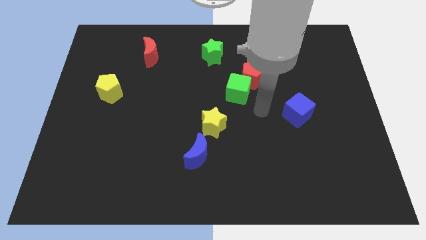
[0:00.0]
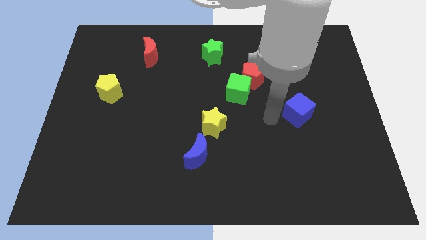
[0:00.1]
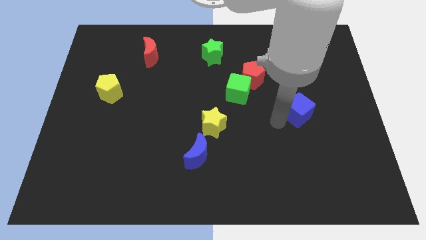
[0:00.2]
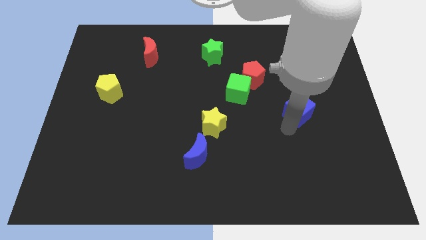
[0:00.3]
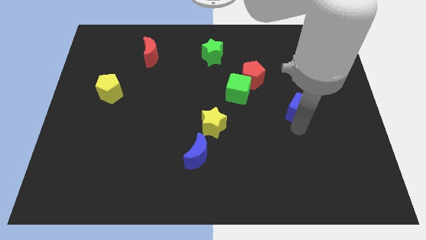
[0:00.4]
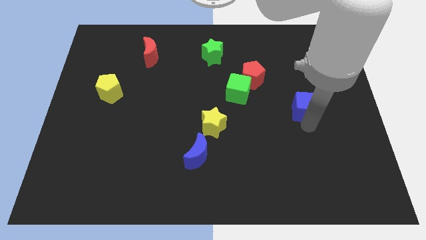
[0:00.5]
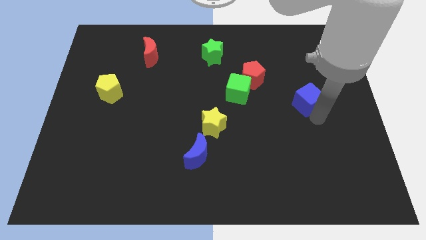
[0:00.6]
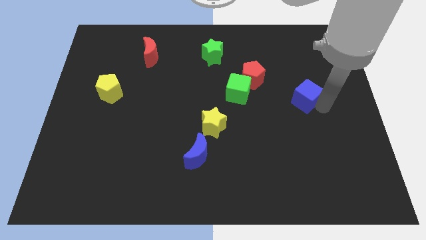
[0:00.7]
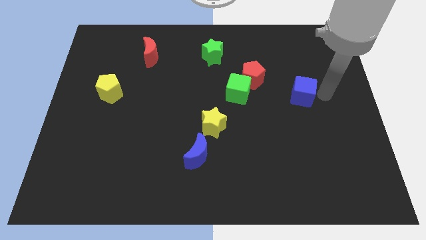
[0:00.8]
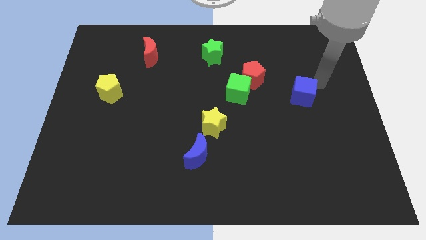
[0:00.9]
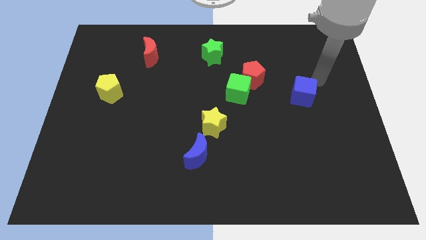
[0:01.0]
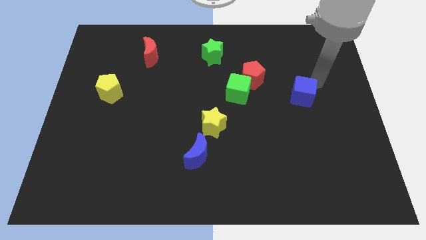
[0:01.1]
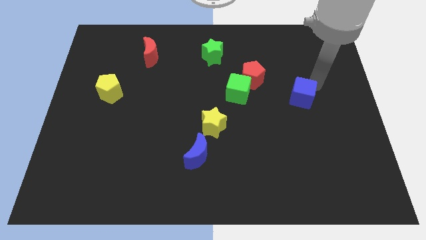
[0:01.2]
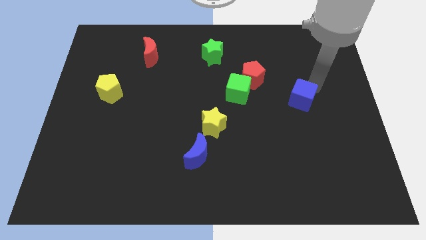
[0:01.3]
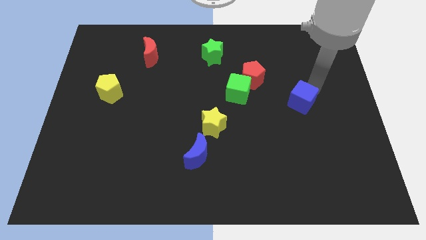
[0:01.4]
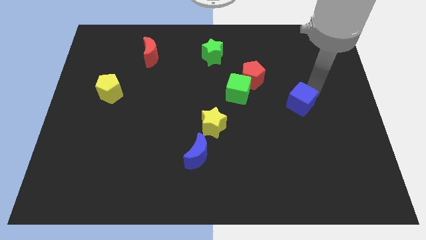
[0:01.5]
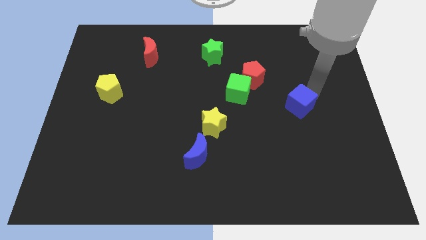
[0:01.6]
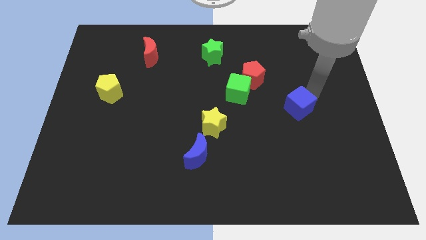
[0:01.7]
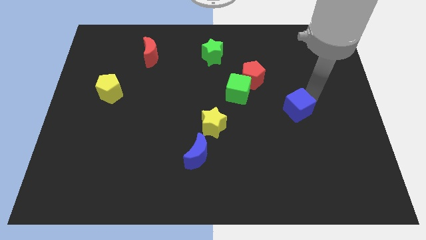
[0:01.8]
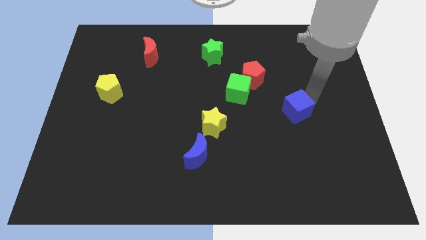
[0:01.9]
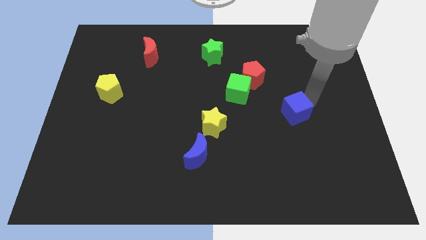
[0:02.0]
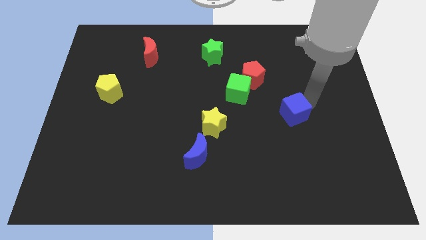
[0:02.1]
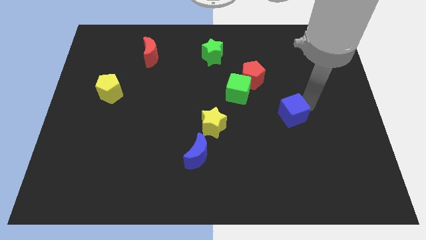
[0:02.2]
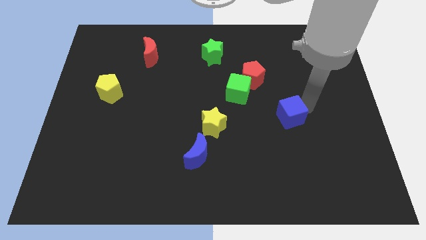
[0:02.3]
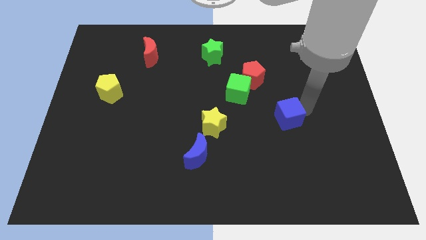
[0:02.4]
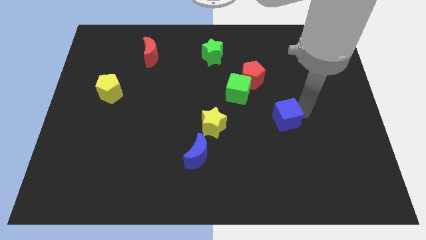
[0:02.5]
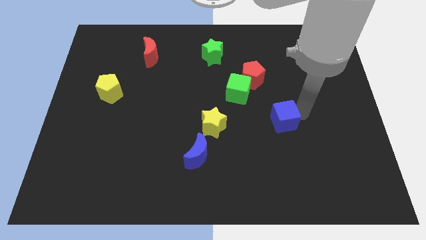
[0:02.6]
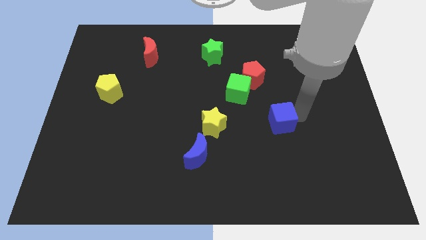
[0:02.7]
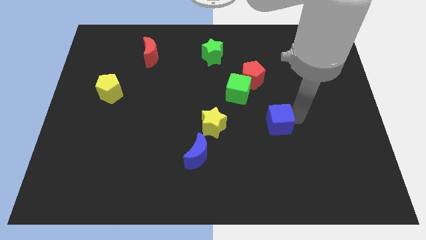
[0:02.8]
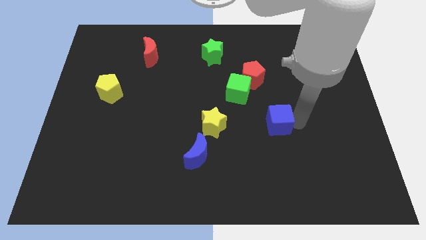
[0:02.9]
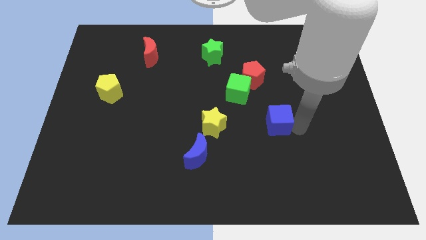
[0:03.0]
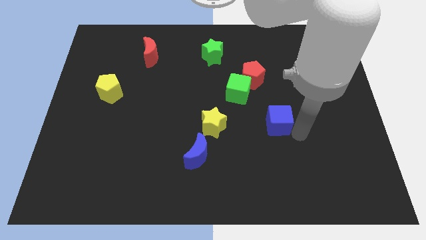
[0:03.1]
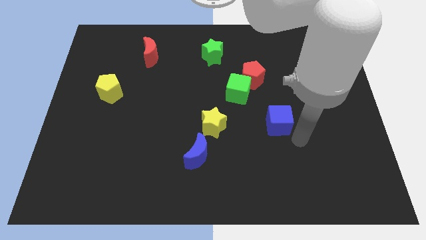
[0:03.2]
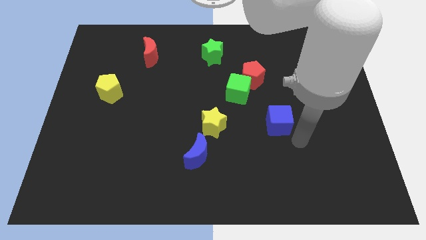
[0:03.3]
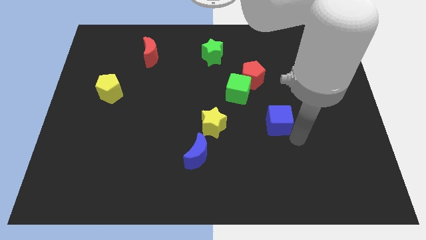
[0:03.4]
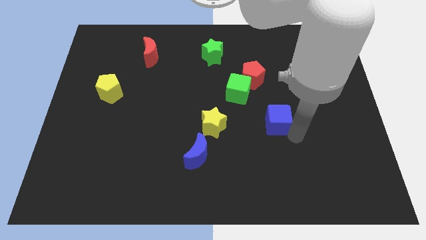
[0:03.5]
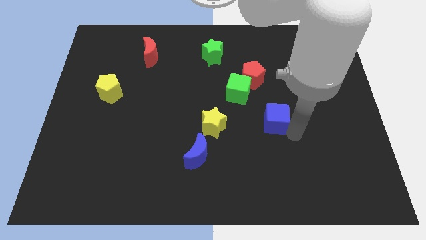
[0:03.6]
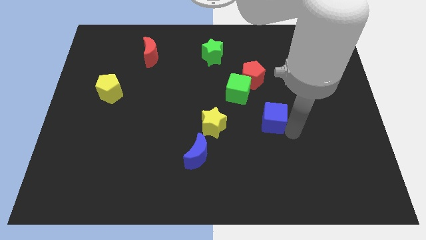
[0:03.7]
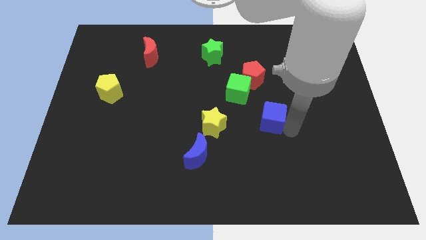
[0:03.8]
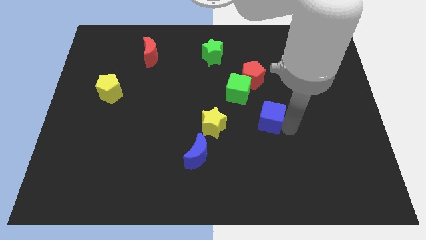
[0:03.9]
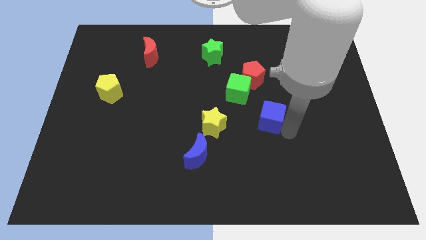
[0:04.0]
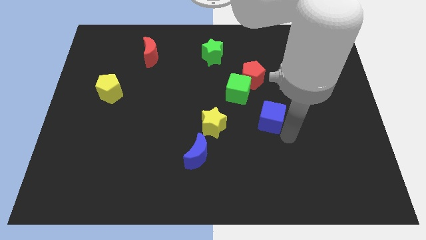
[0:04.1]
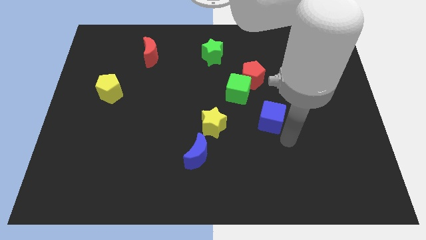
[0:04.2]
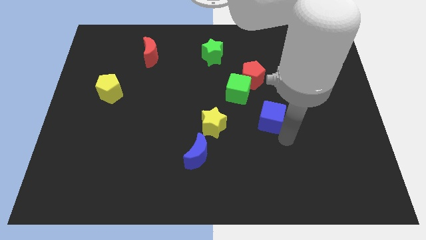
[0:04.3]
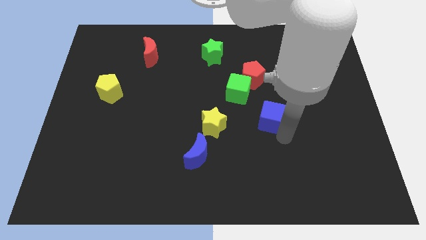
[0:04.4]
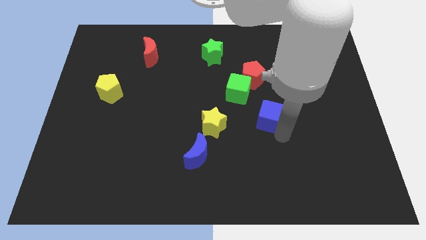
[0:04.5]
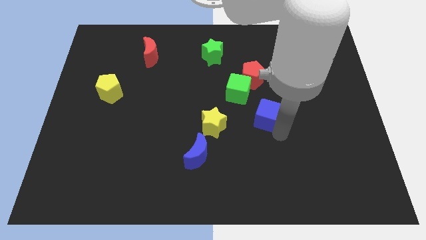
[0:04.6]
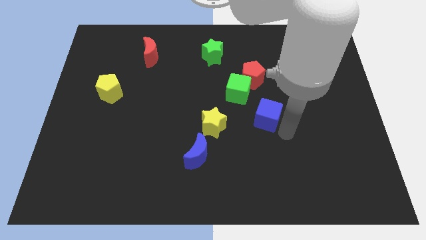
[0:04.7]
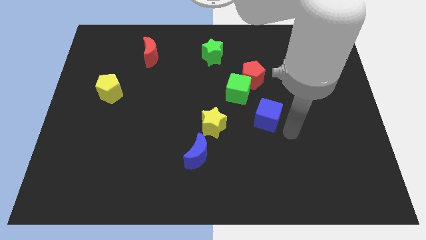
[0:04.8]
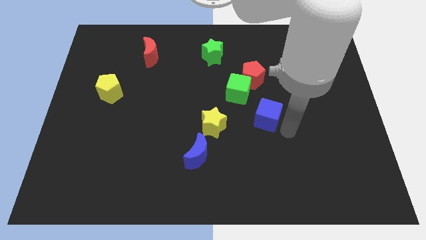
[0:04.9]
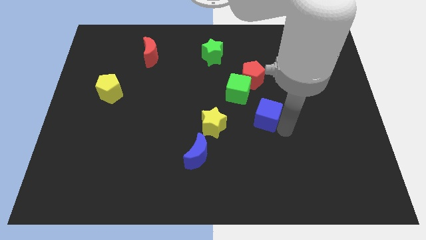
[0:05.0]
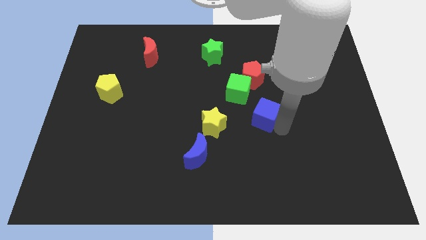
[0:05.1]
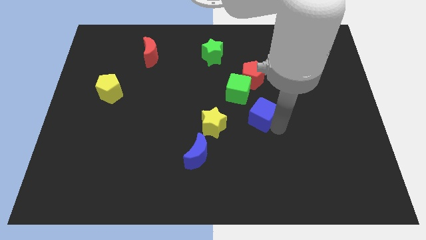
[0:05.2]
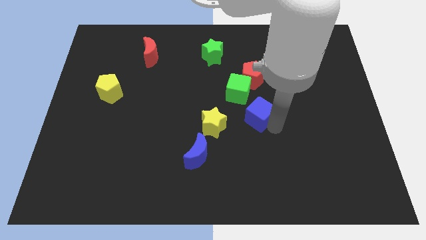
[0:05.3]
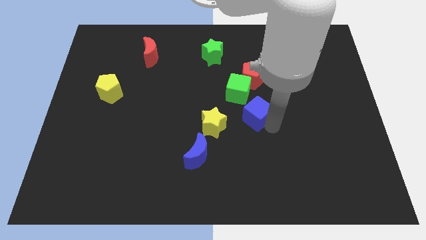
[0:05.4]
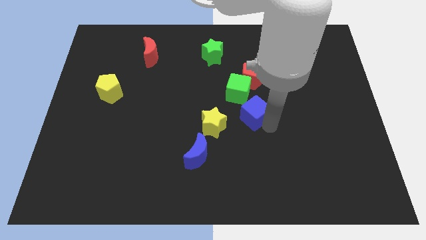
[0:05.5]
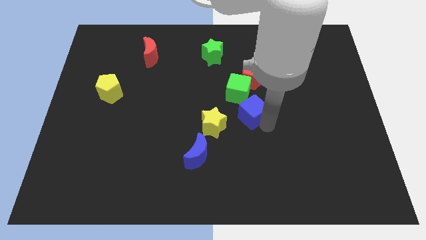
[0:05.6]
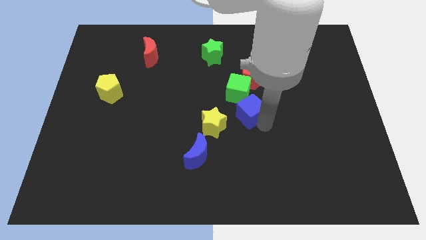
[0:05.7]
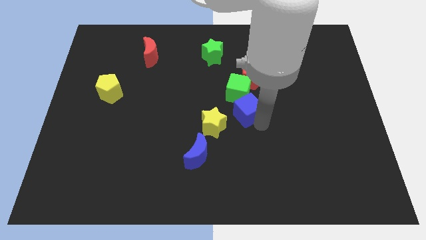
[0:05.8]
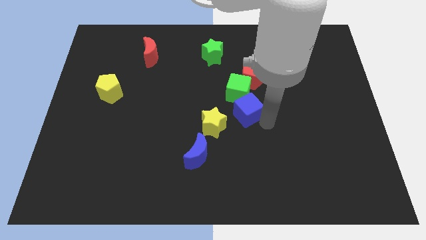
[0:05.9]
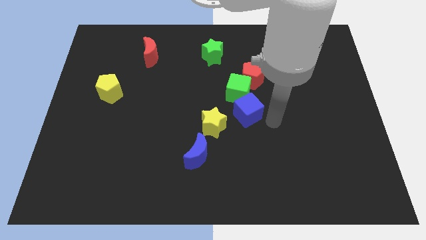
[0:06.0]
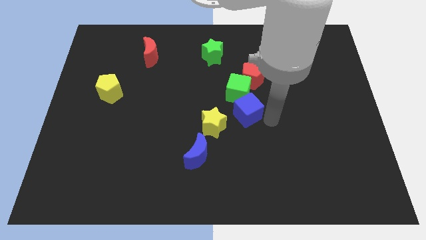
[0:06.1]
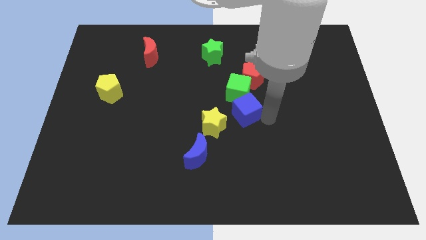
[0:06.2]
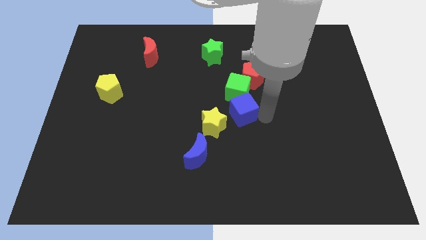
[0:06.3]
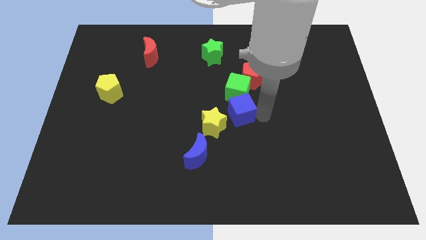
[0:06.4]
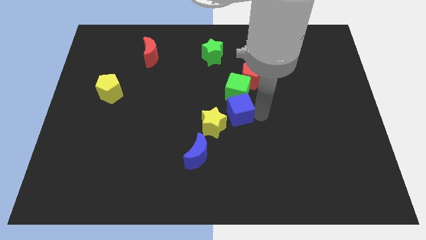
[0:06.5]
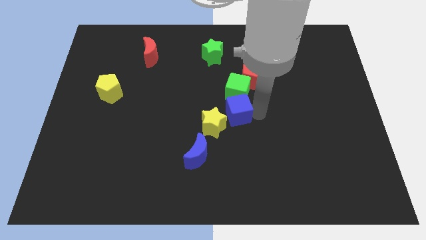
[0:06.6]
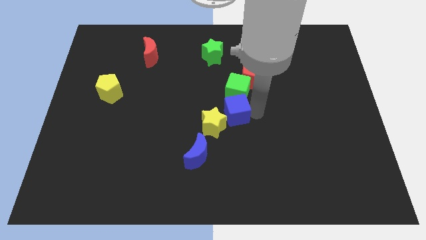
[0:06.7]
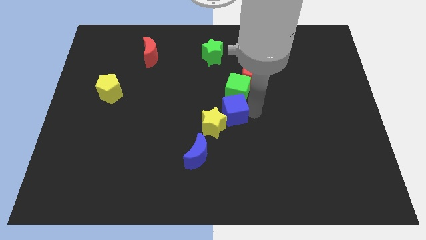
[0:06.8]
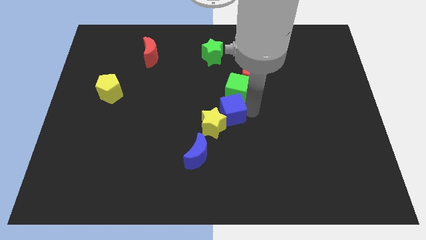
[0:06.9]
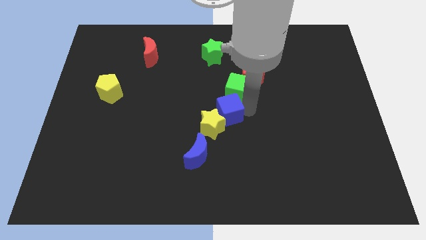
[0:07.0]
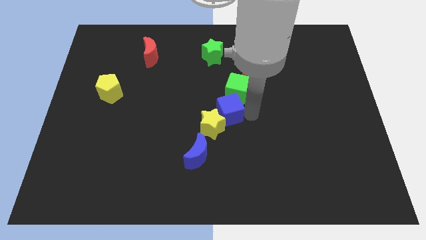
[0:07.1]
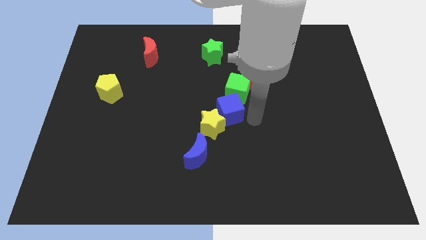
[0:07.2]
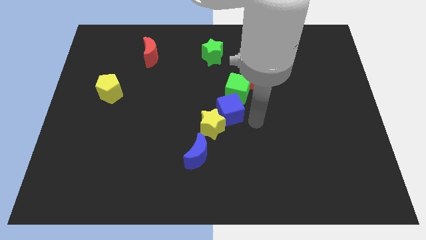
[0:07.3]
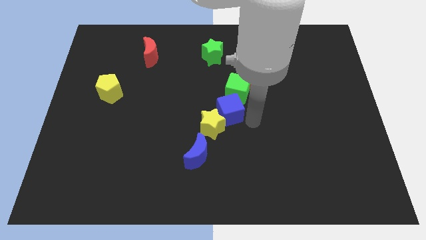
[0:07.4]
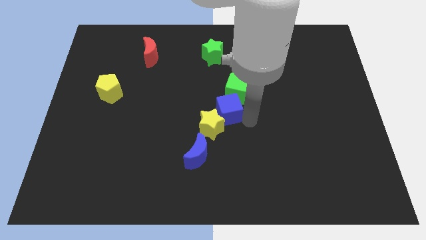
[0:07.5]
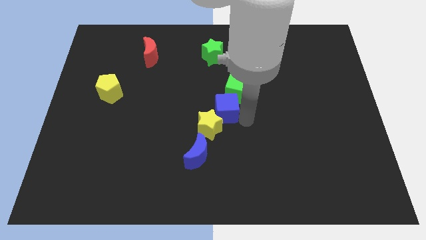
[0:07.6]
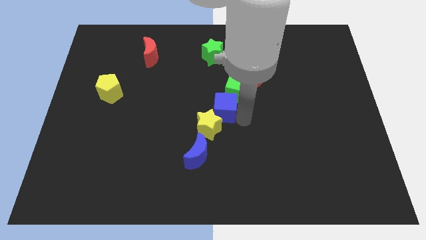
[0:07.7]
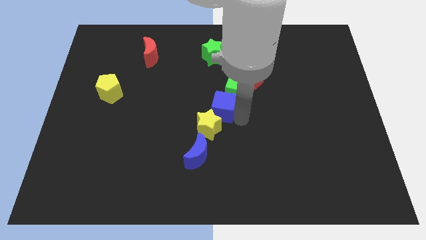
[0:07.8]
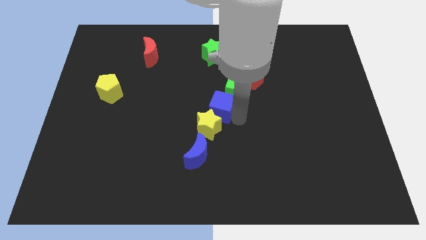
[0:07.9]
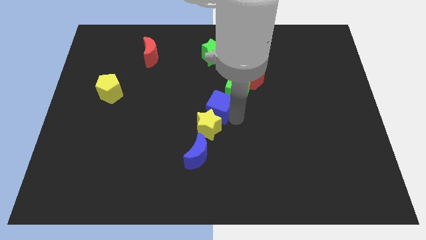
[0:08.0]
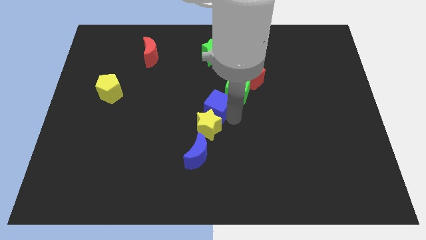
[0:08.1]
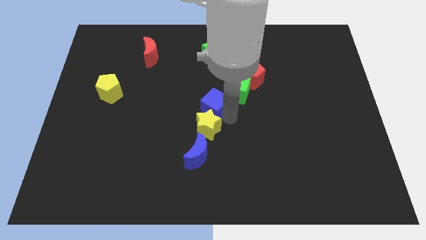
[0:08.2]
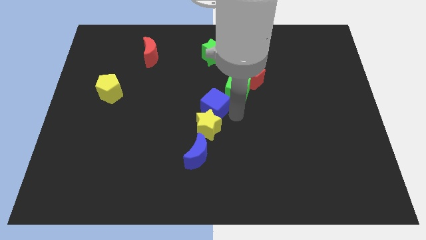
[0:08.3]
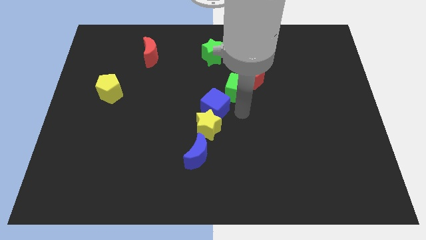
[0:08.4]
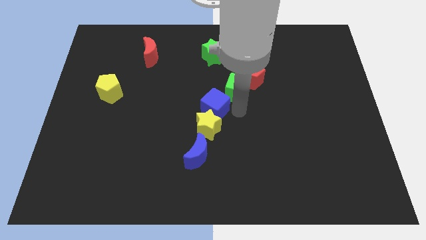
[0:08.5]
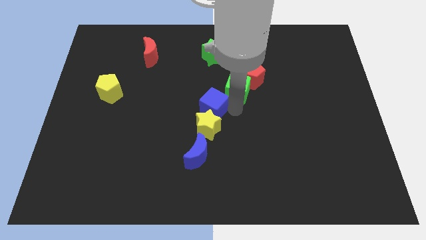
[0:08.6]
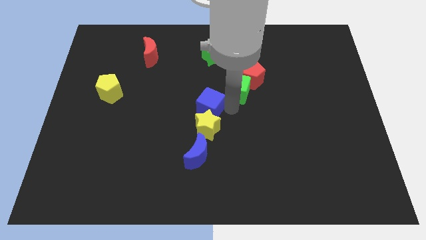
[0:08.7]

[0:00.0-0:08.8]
push the blue cube to the left
